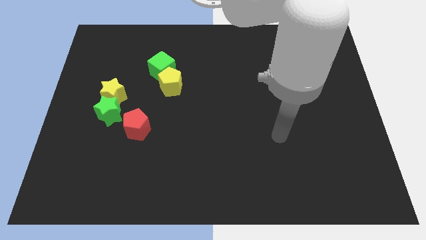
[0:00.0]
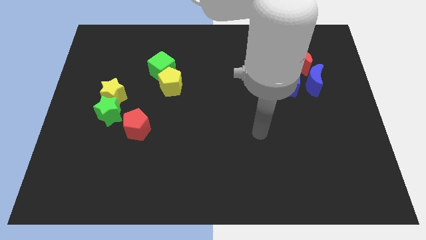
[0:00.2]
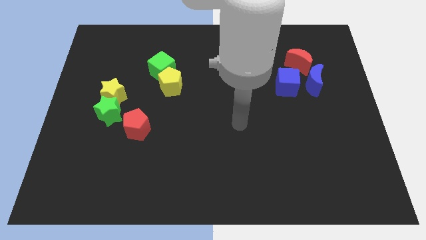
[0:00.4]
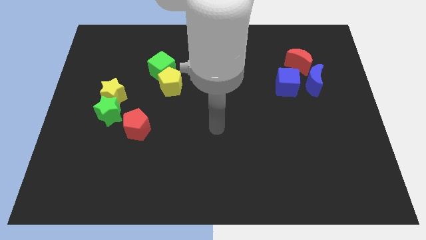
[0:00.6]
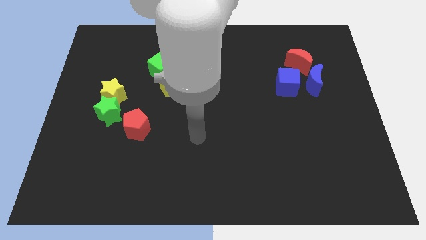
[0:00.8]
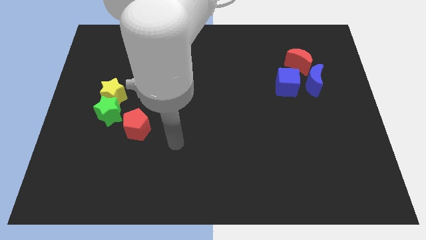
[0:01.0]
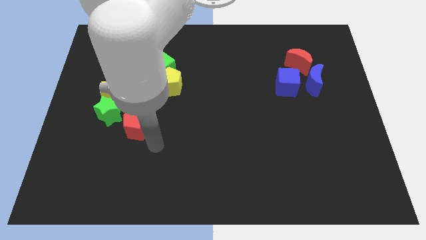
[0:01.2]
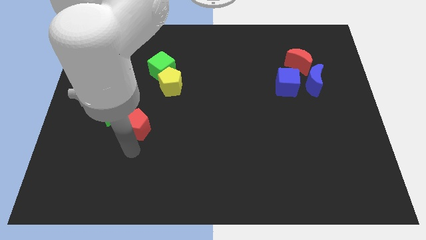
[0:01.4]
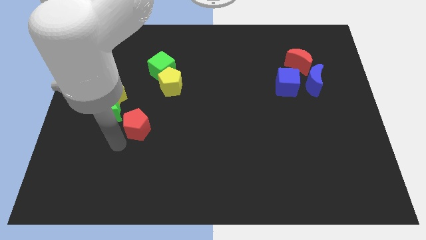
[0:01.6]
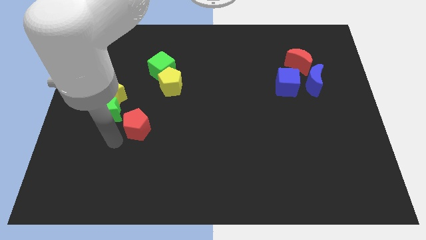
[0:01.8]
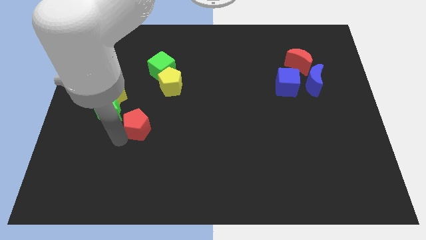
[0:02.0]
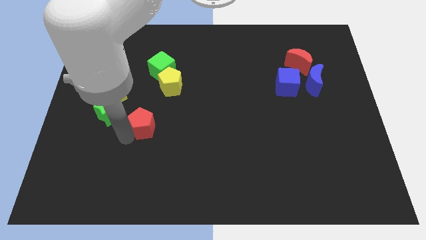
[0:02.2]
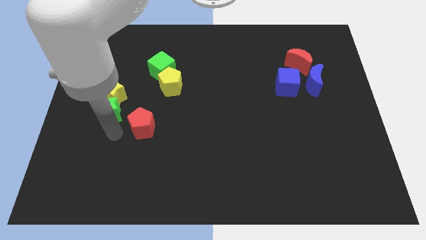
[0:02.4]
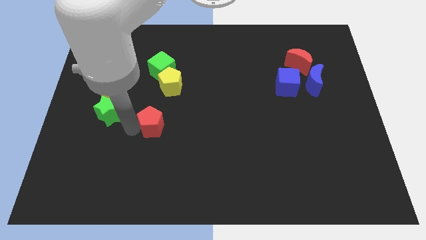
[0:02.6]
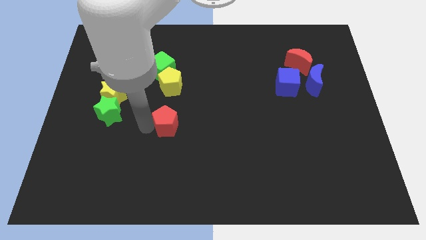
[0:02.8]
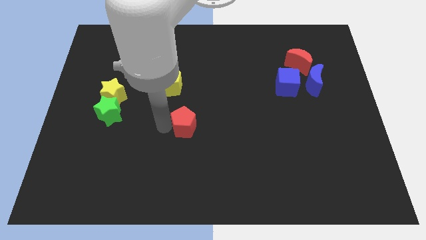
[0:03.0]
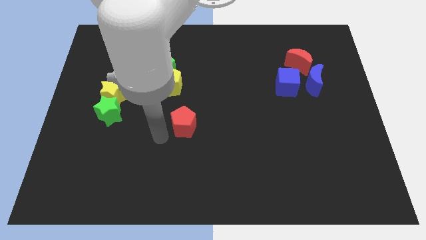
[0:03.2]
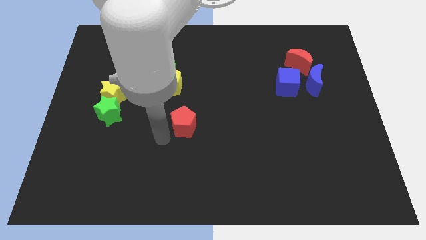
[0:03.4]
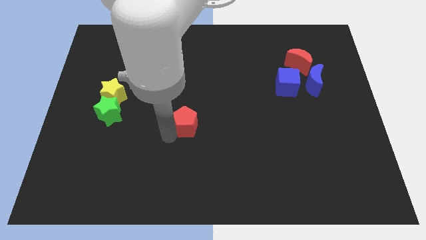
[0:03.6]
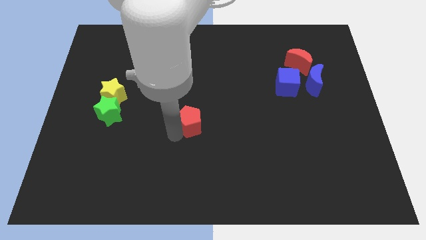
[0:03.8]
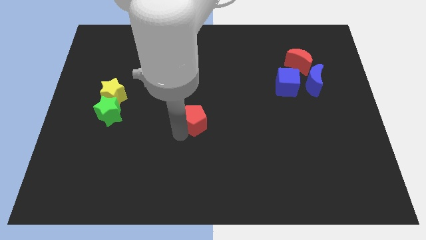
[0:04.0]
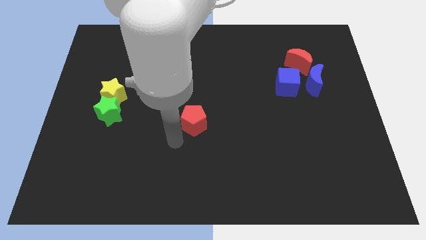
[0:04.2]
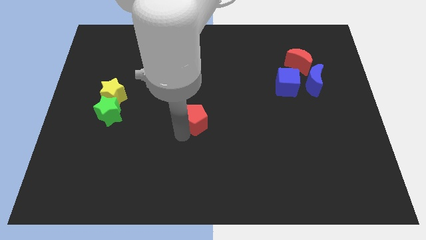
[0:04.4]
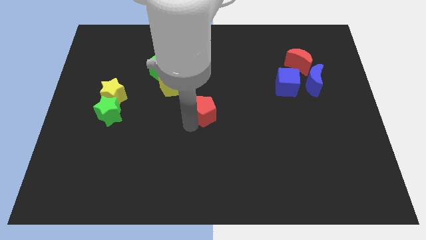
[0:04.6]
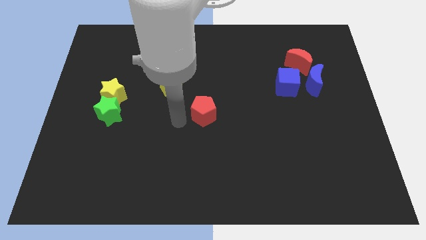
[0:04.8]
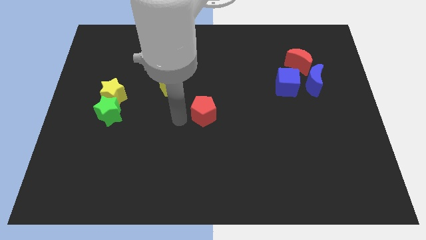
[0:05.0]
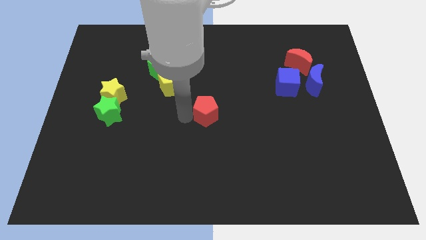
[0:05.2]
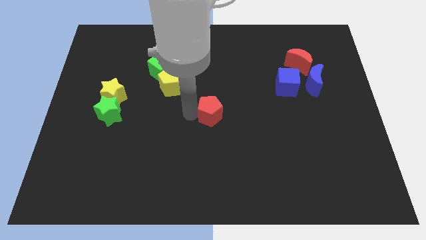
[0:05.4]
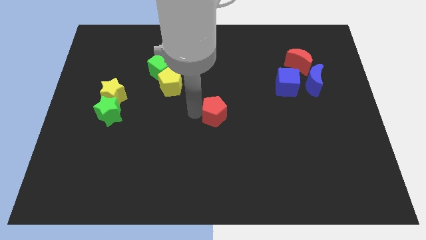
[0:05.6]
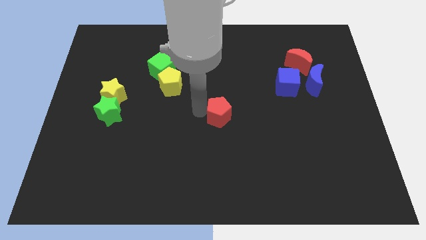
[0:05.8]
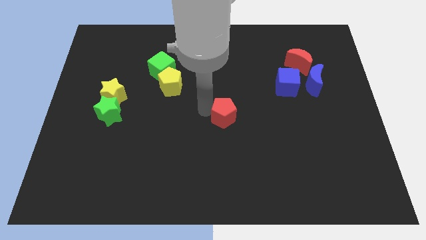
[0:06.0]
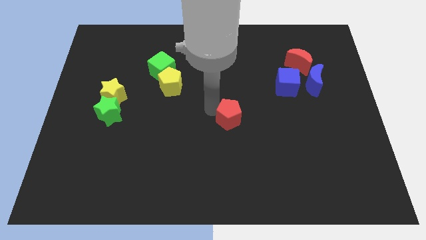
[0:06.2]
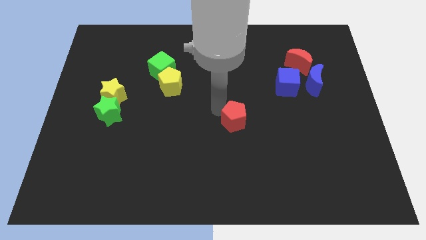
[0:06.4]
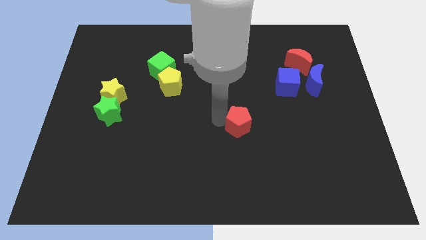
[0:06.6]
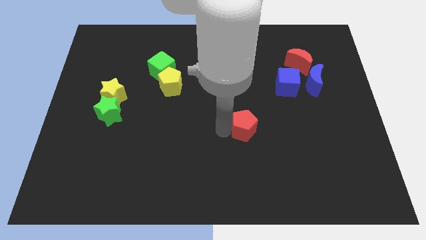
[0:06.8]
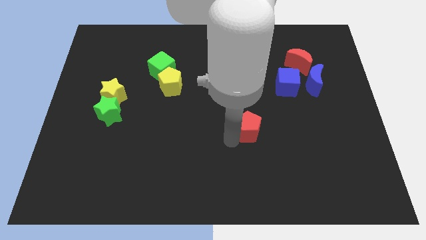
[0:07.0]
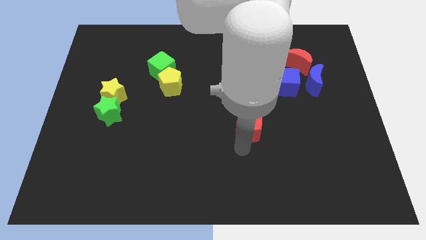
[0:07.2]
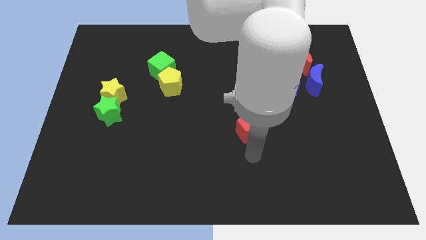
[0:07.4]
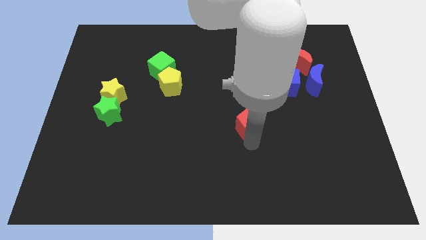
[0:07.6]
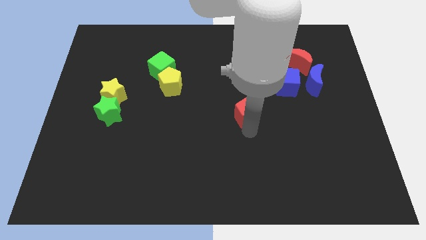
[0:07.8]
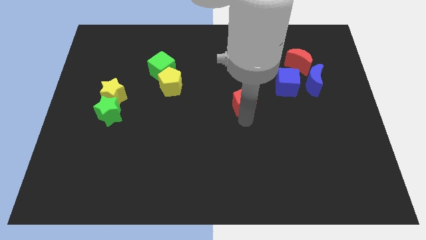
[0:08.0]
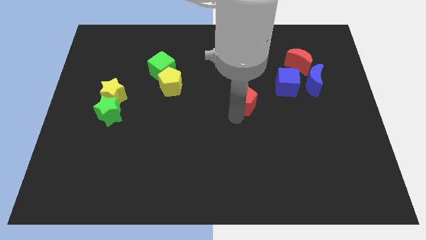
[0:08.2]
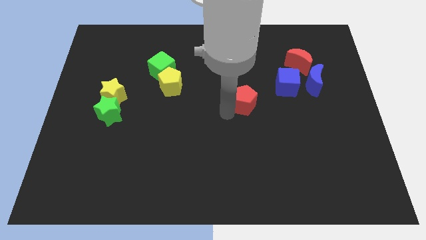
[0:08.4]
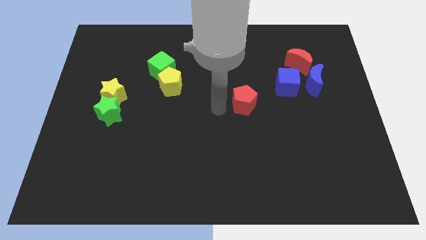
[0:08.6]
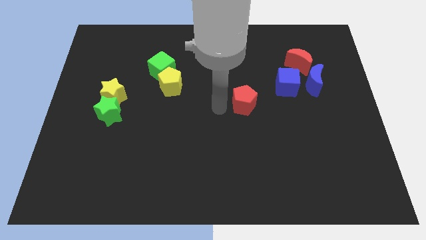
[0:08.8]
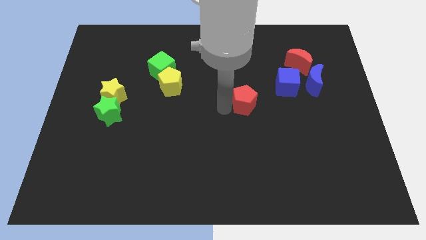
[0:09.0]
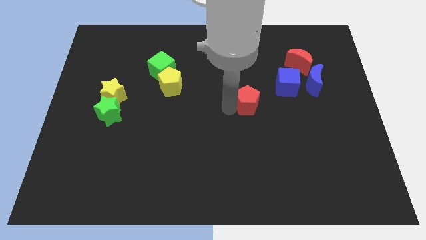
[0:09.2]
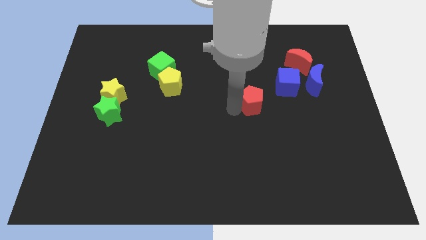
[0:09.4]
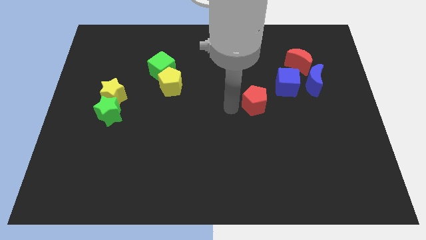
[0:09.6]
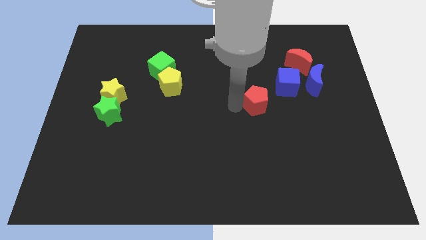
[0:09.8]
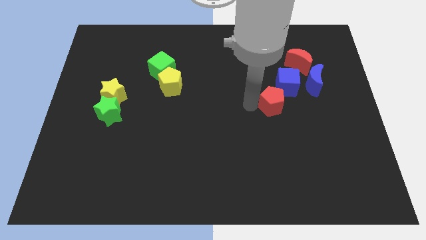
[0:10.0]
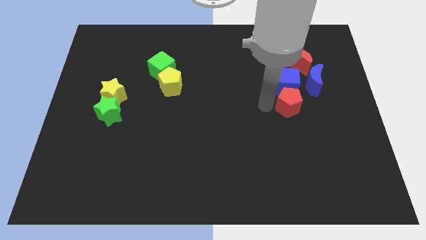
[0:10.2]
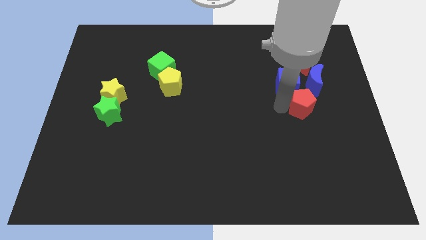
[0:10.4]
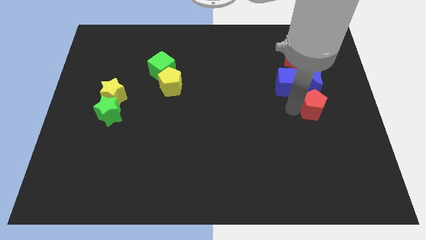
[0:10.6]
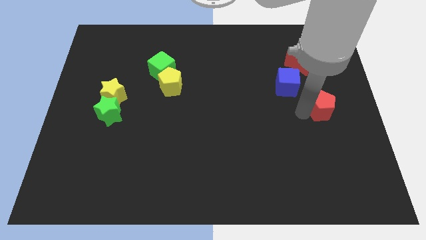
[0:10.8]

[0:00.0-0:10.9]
move the red pentagon to the right side

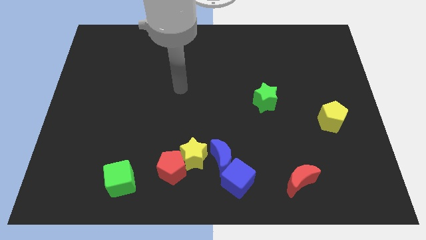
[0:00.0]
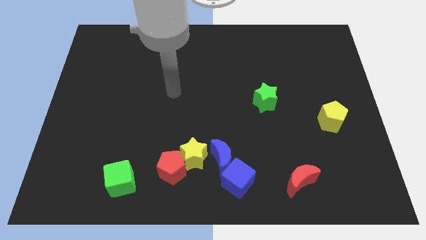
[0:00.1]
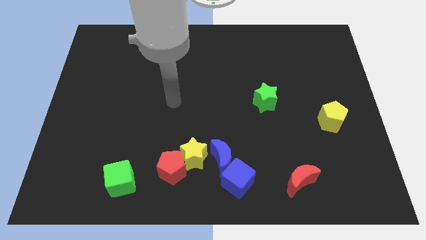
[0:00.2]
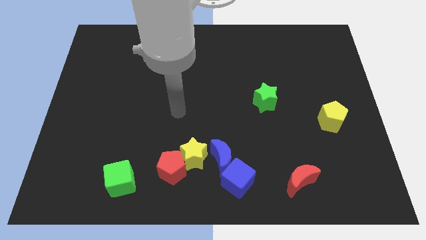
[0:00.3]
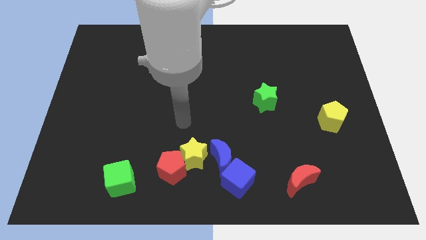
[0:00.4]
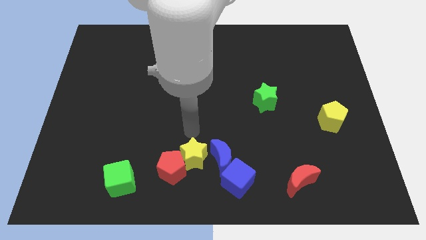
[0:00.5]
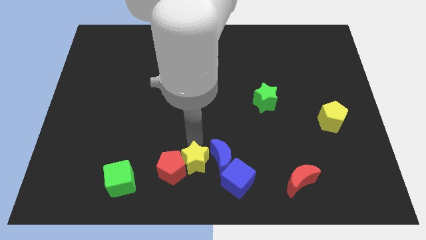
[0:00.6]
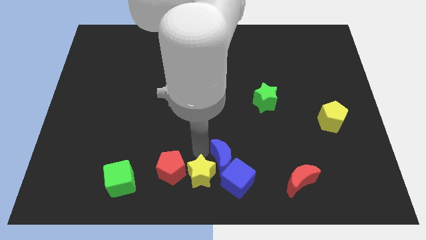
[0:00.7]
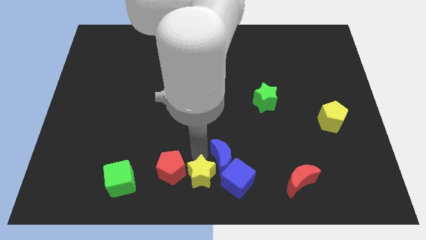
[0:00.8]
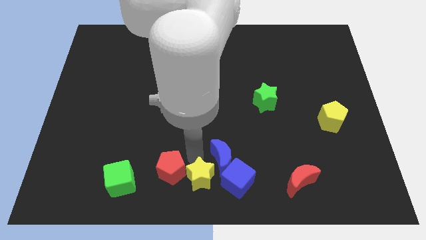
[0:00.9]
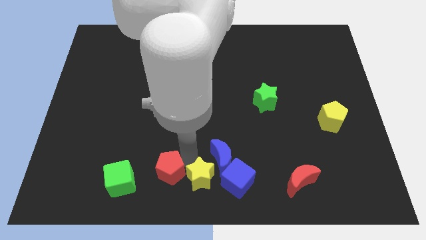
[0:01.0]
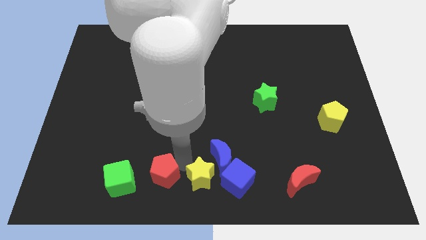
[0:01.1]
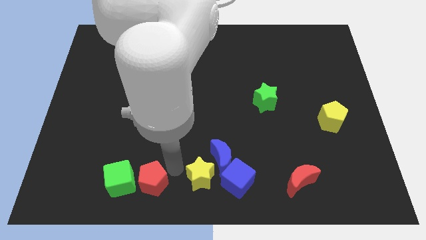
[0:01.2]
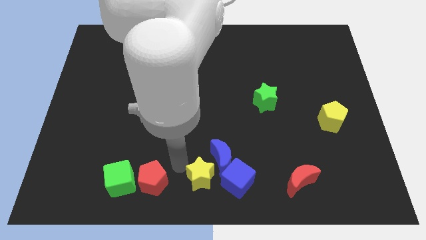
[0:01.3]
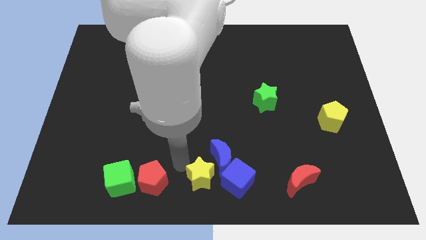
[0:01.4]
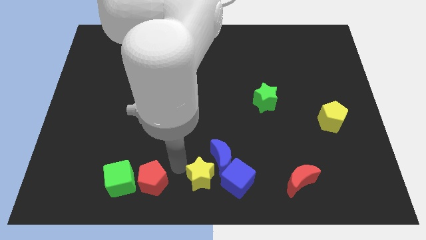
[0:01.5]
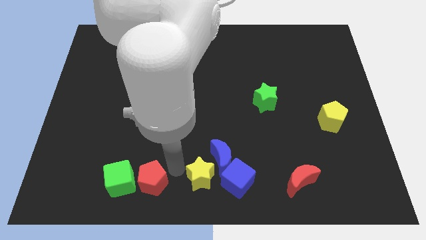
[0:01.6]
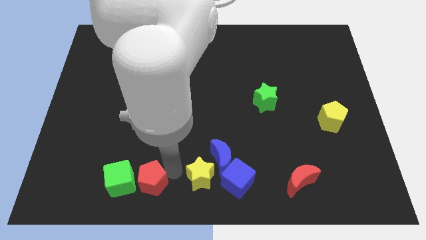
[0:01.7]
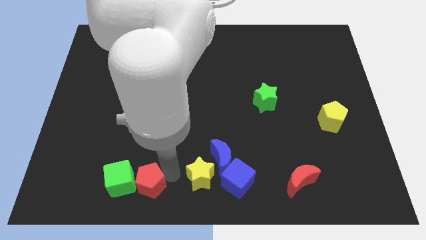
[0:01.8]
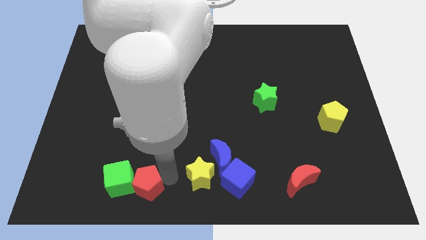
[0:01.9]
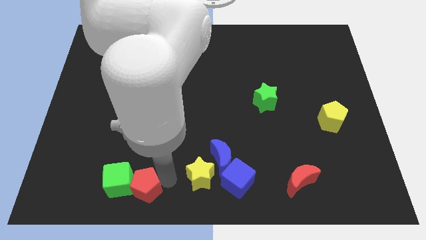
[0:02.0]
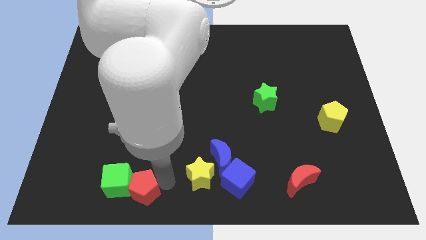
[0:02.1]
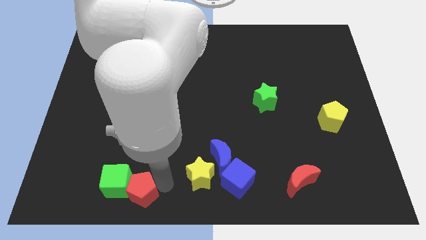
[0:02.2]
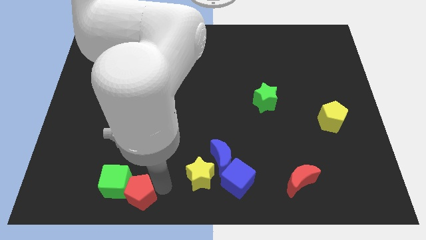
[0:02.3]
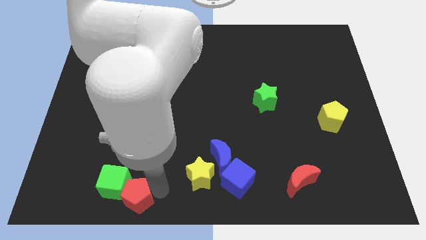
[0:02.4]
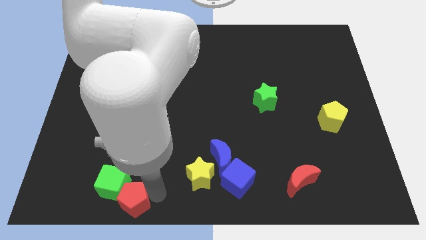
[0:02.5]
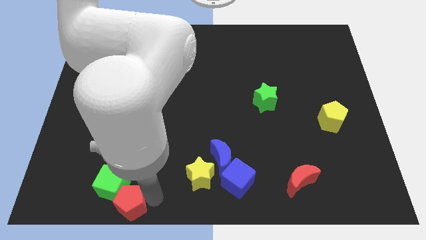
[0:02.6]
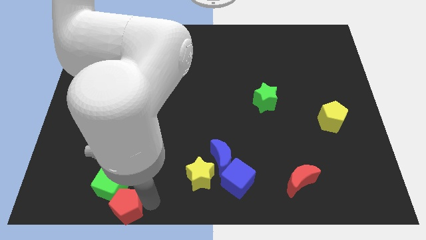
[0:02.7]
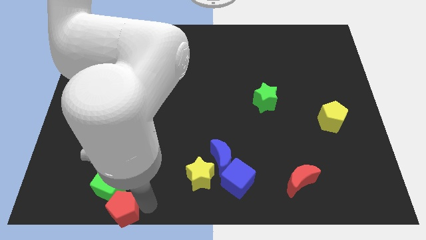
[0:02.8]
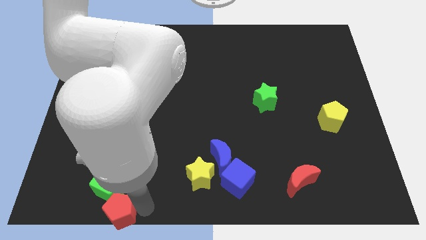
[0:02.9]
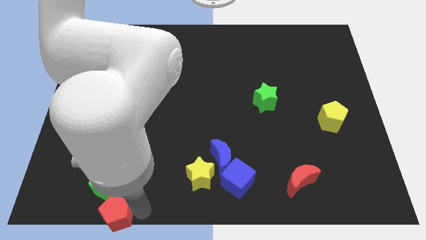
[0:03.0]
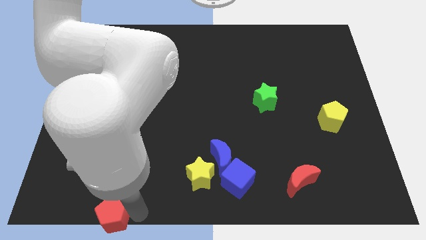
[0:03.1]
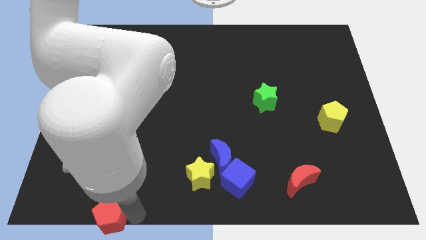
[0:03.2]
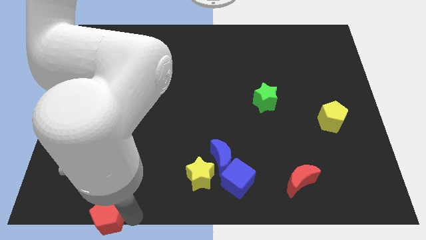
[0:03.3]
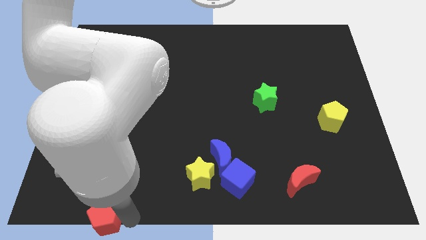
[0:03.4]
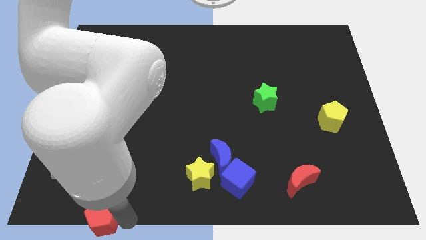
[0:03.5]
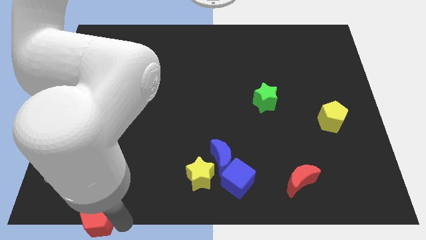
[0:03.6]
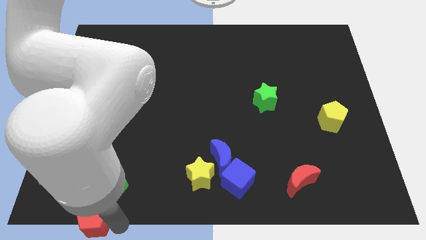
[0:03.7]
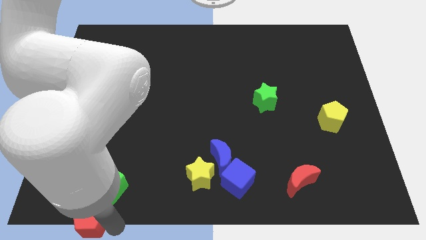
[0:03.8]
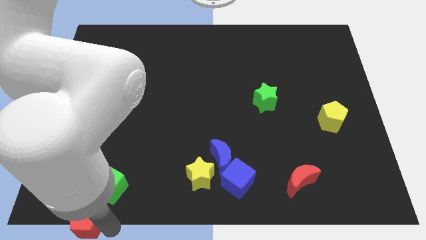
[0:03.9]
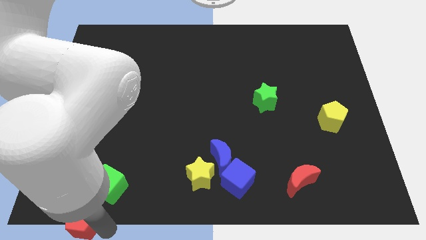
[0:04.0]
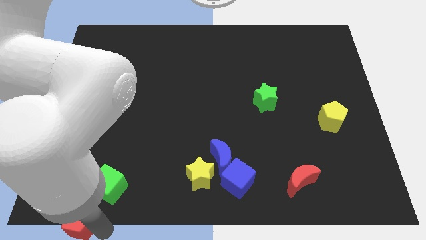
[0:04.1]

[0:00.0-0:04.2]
push the red pentagon to the bottom left
